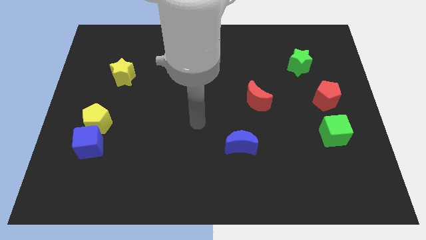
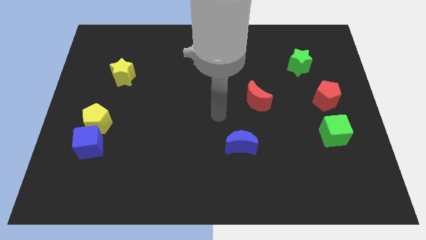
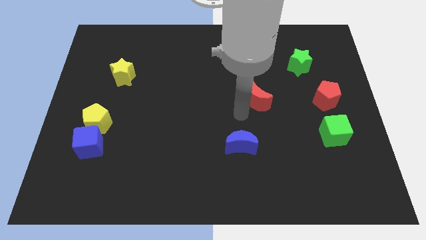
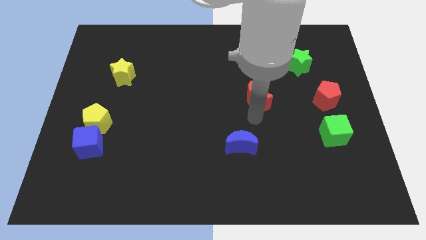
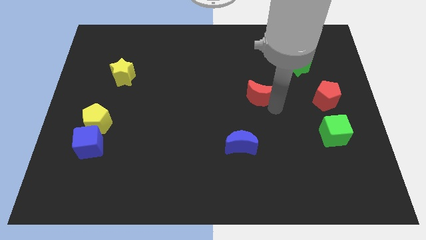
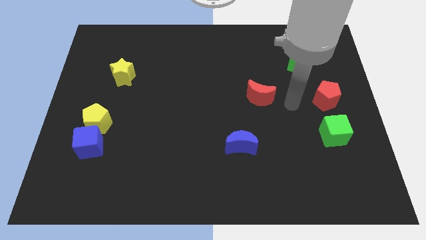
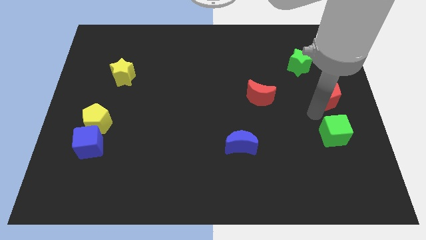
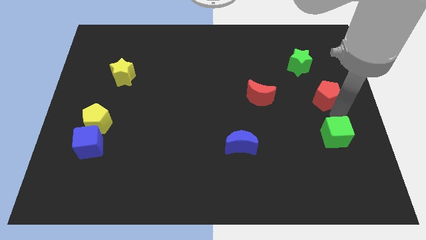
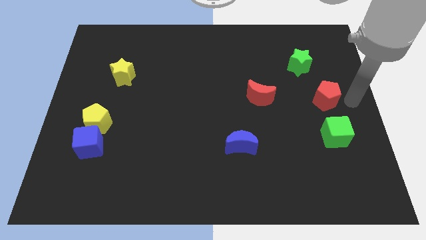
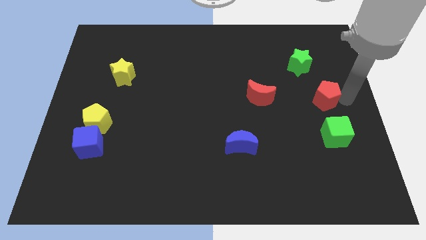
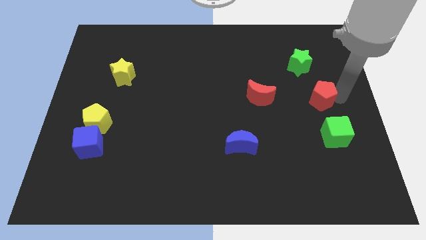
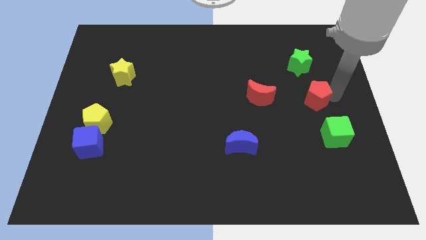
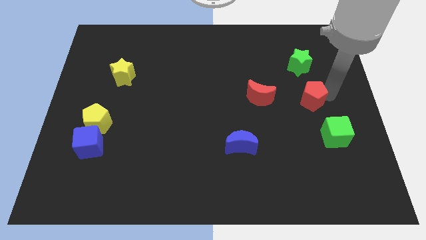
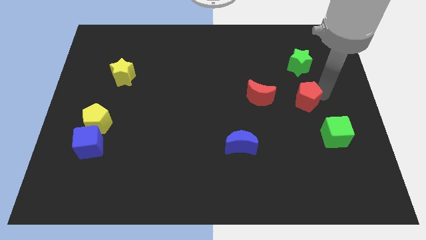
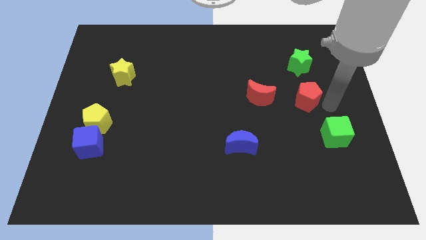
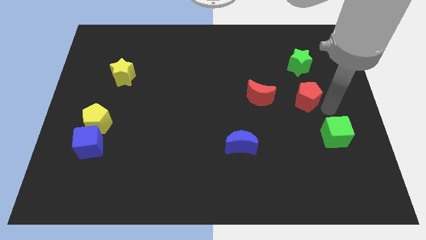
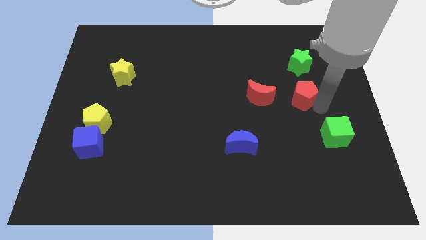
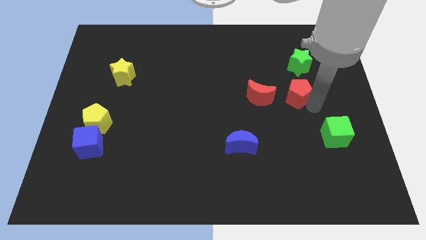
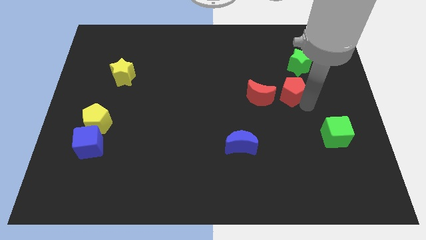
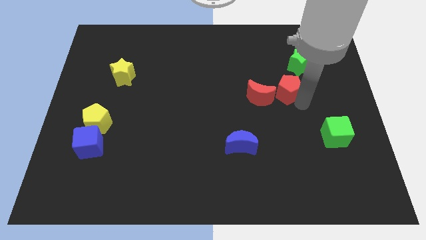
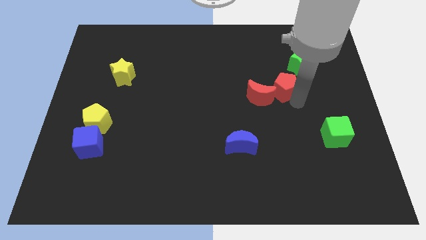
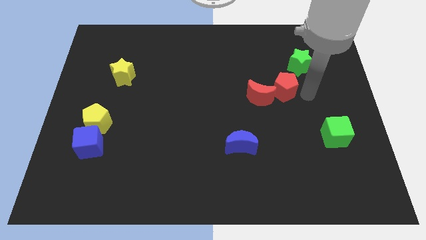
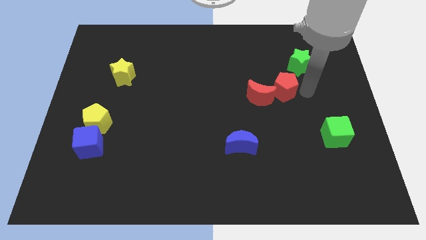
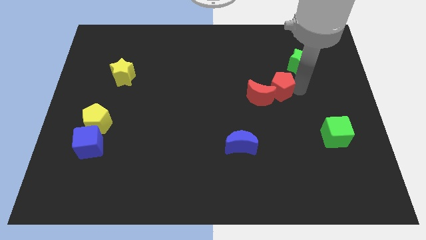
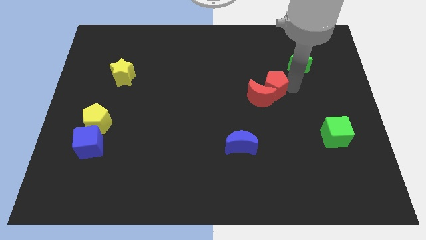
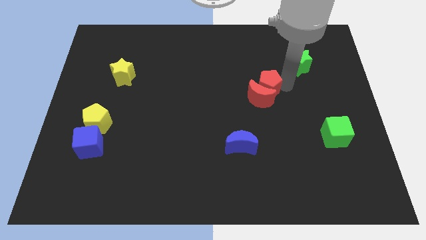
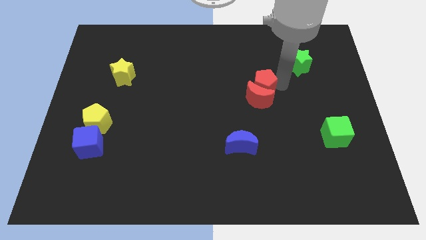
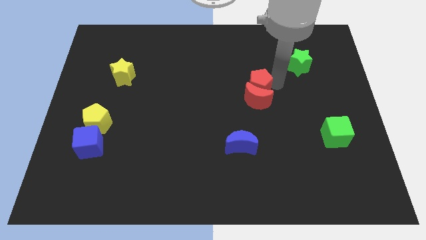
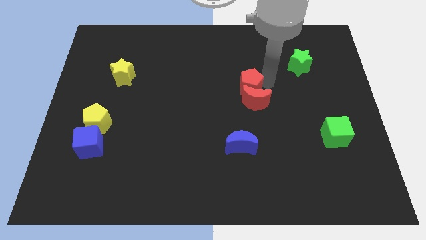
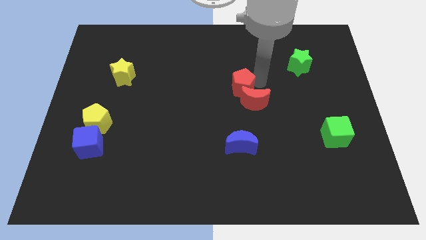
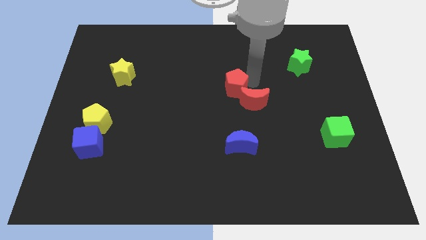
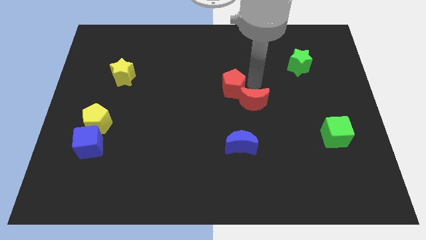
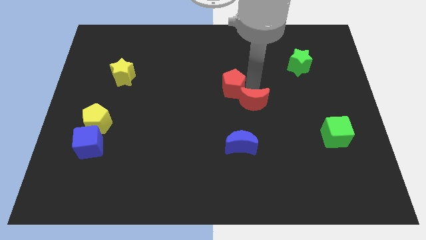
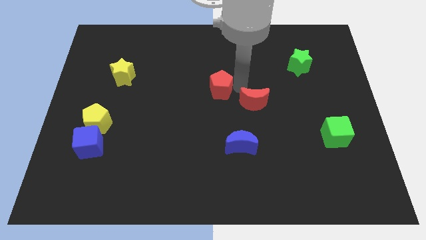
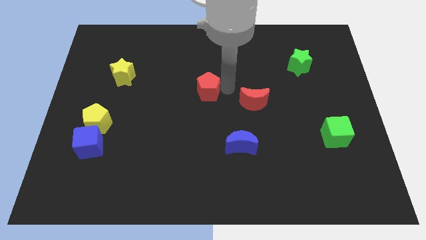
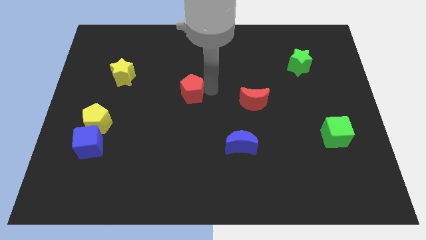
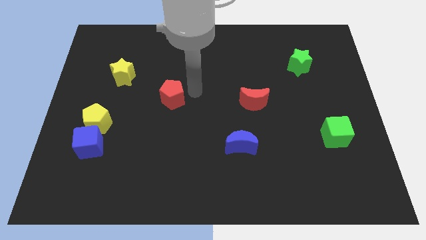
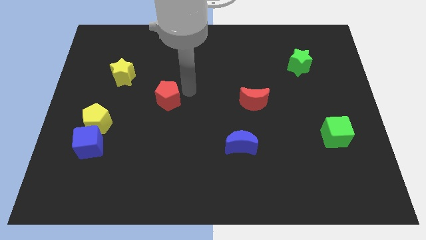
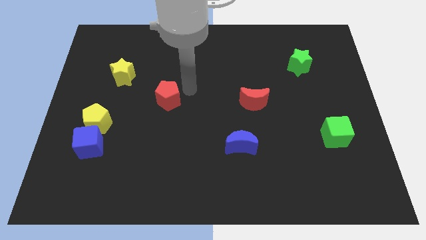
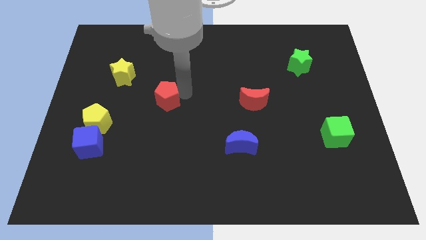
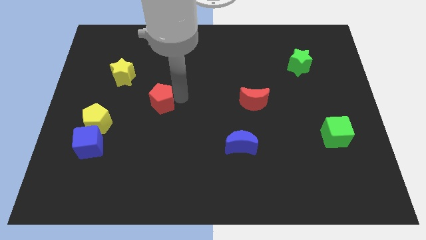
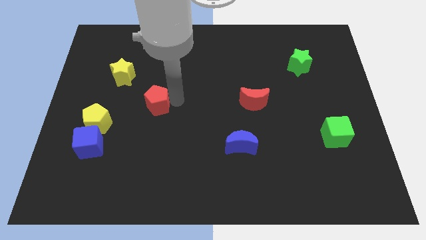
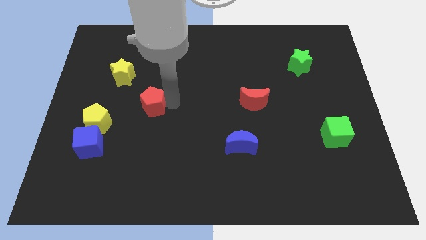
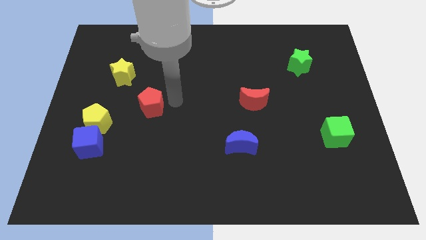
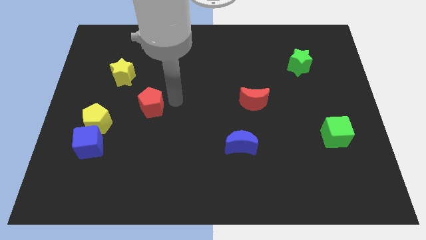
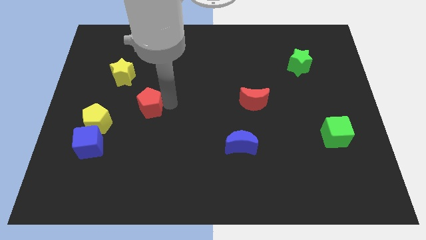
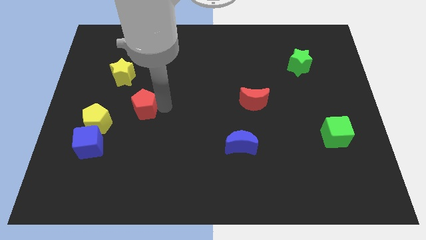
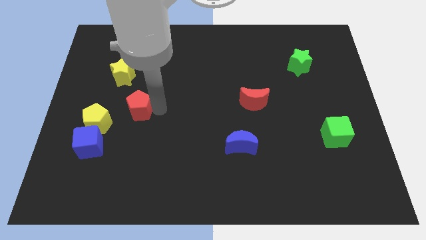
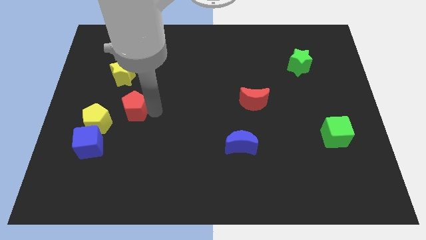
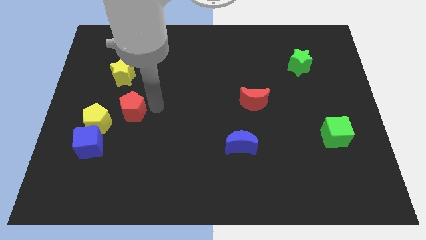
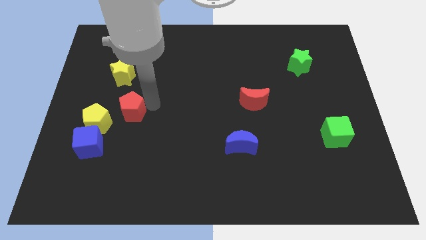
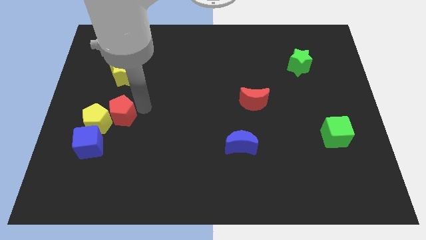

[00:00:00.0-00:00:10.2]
push the red pentagon close to the yellow pentagon

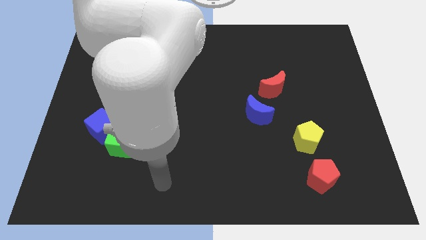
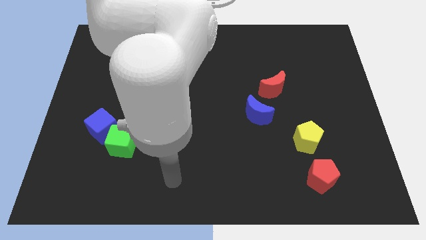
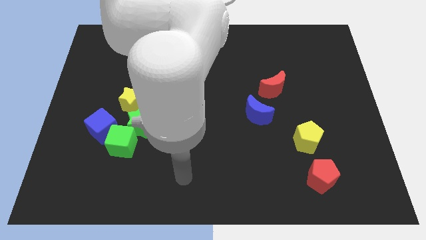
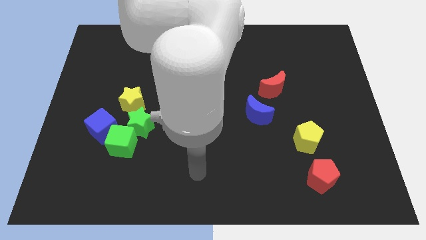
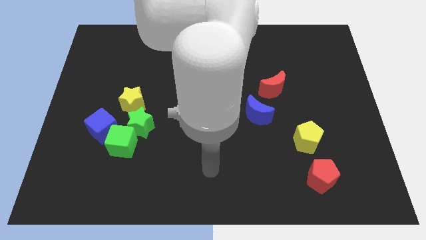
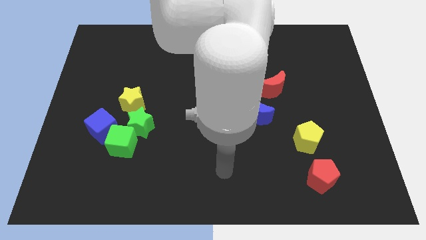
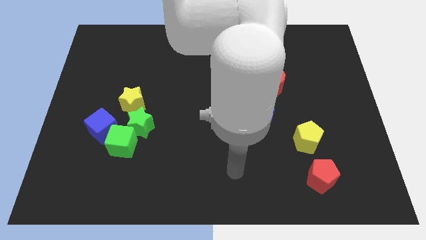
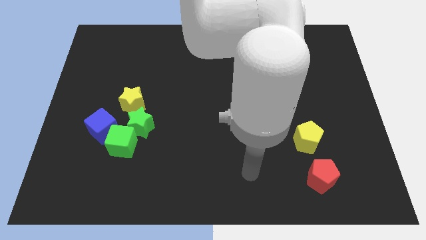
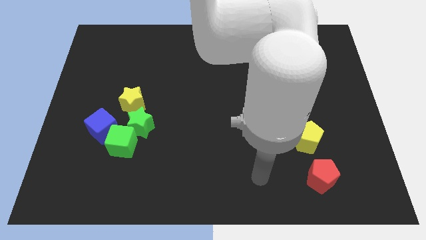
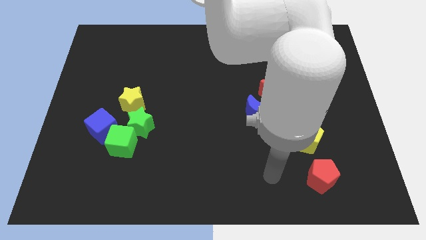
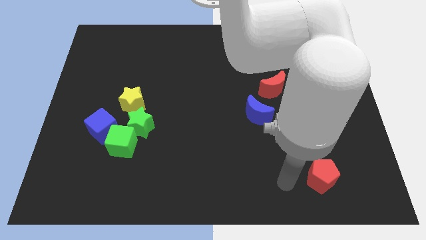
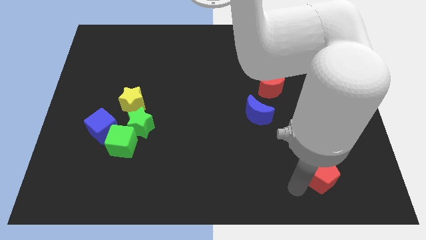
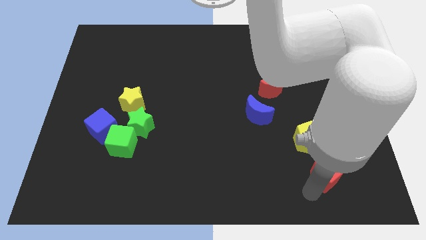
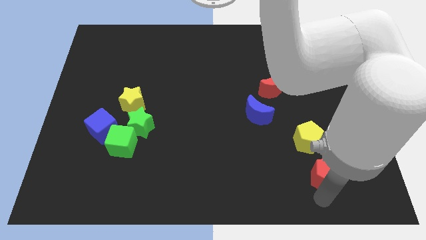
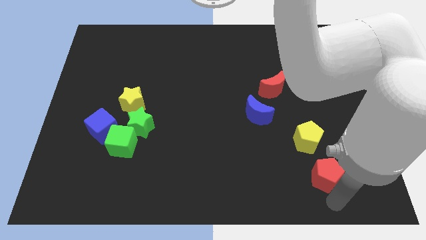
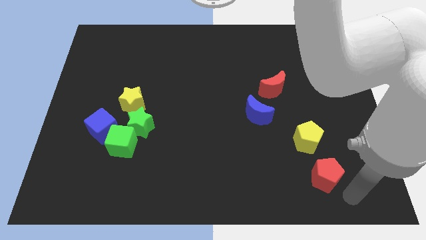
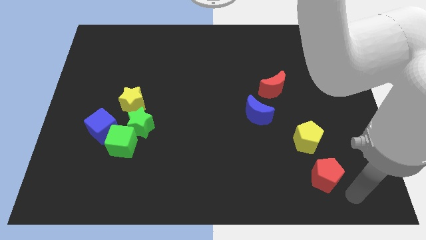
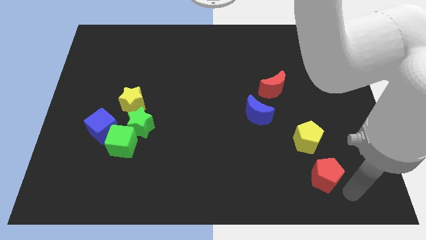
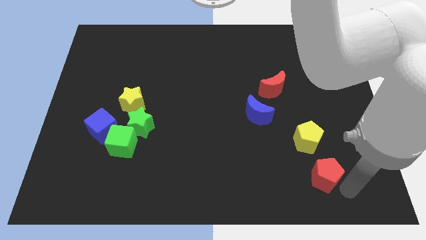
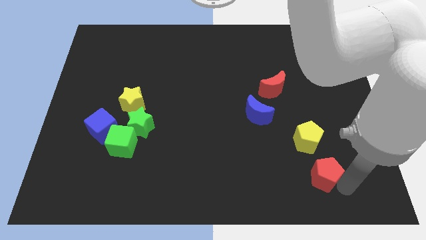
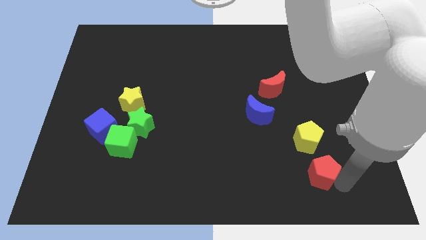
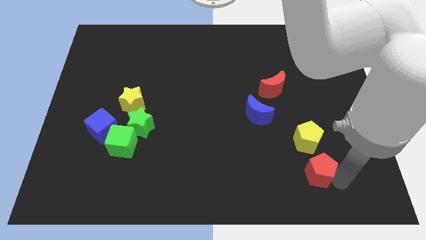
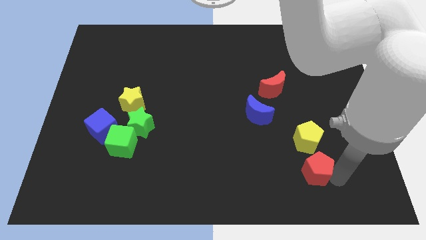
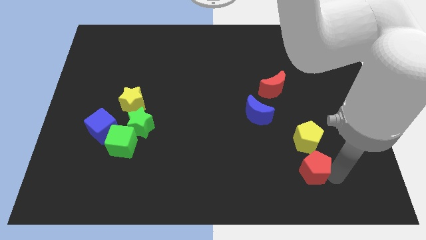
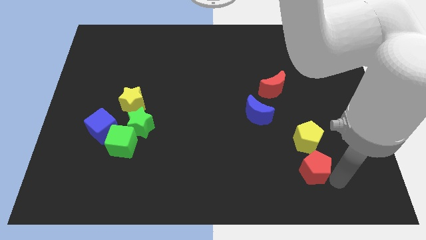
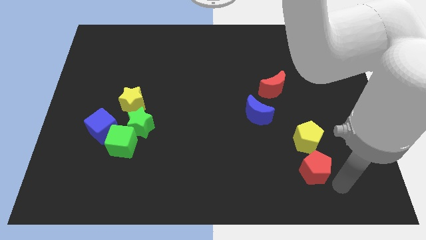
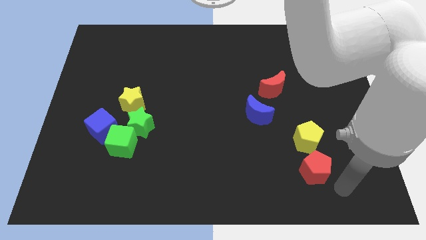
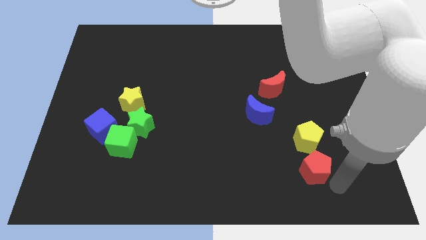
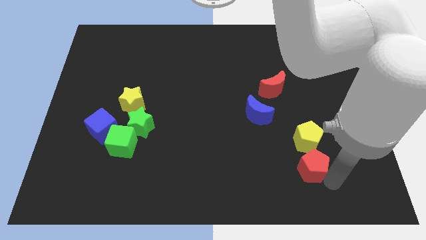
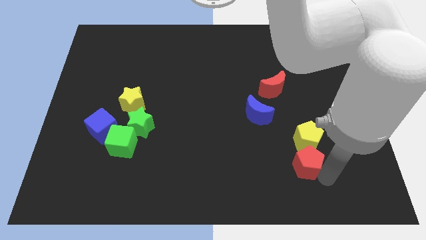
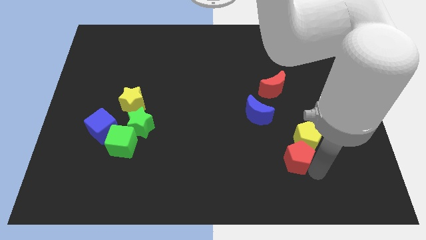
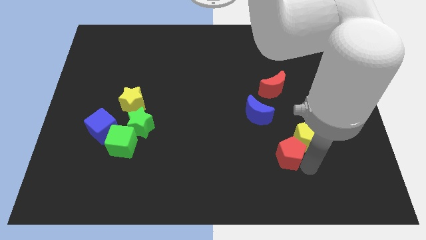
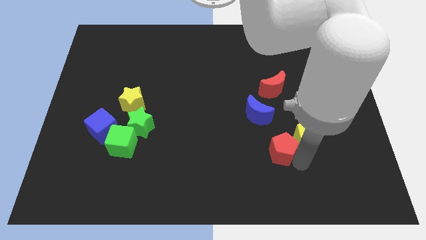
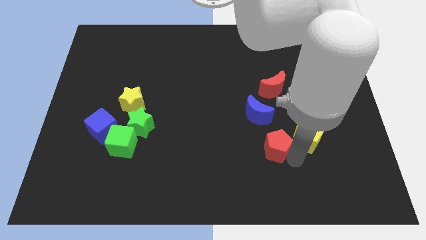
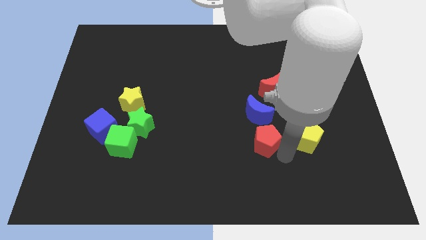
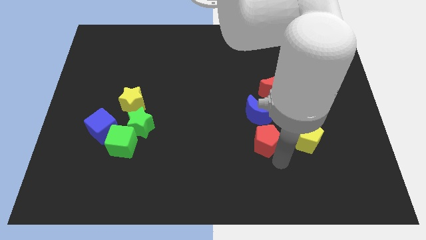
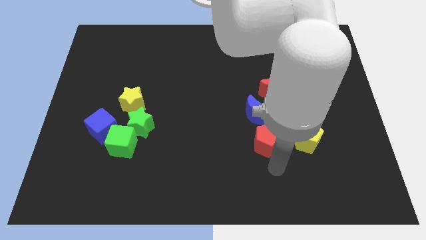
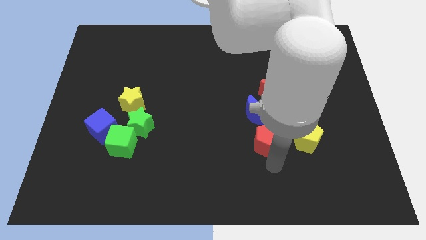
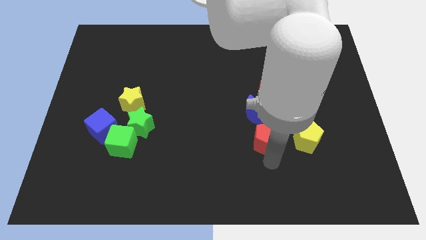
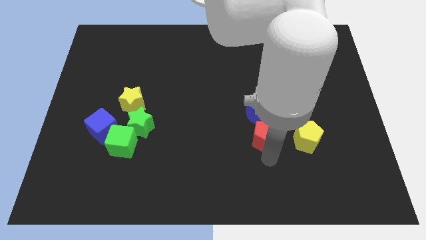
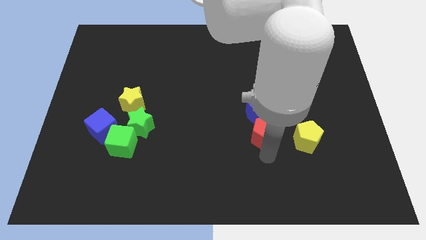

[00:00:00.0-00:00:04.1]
move the red pentagon next to the blue moon
